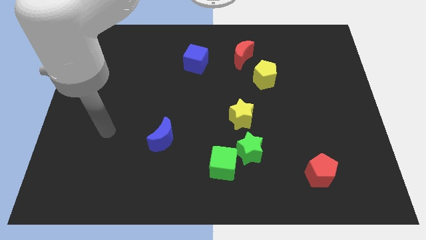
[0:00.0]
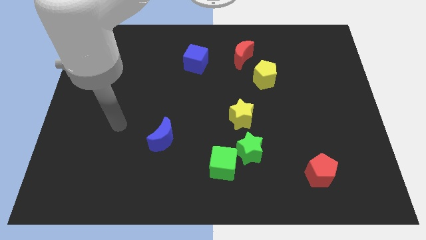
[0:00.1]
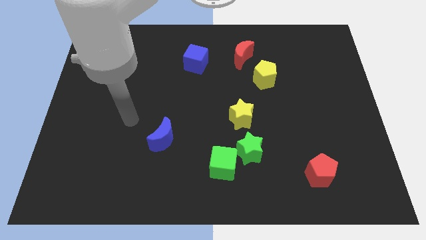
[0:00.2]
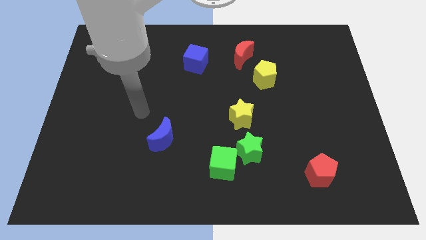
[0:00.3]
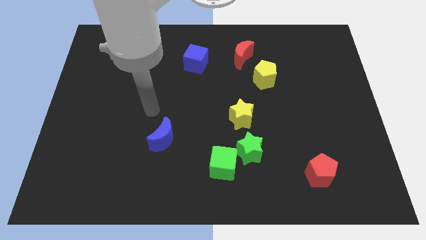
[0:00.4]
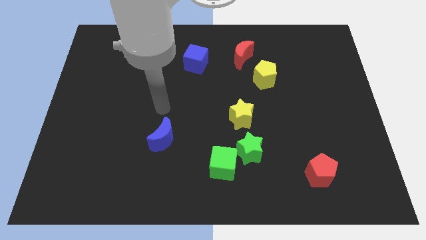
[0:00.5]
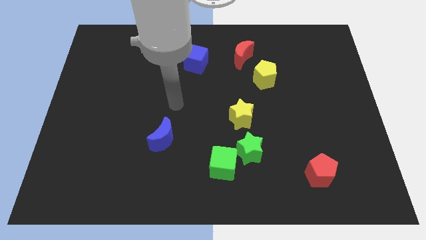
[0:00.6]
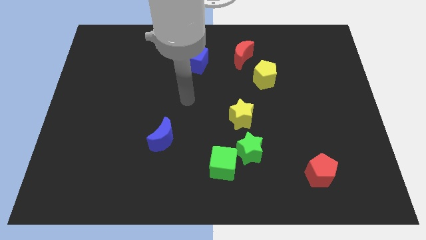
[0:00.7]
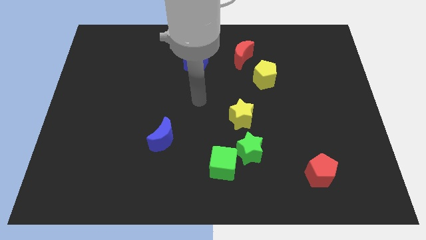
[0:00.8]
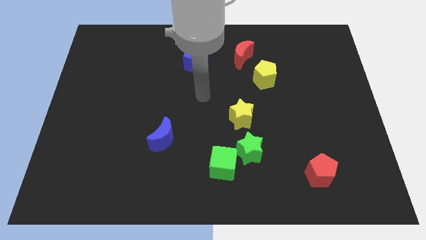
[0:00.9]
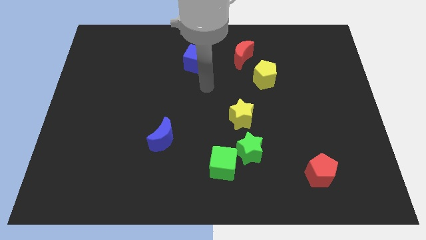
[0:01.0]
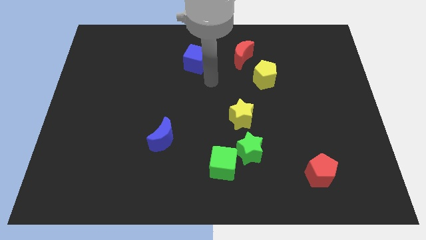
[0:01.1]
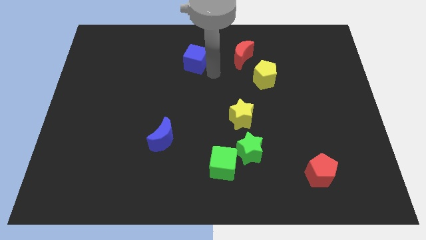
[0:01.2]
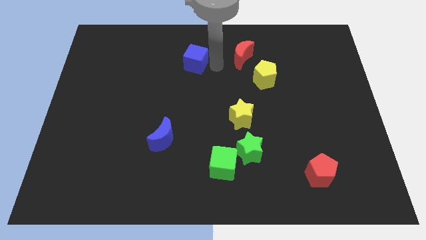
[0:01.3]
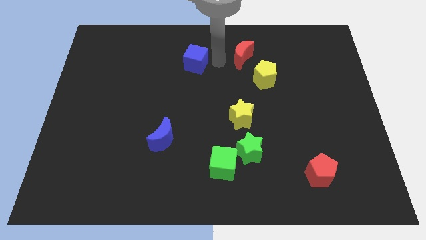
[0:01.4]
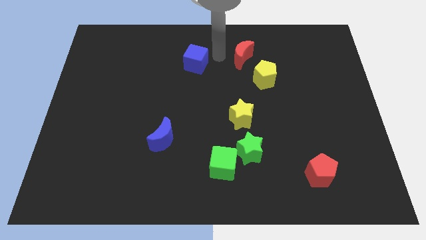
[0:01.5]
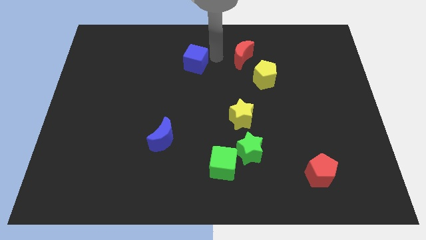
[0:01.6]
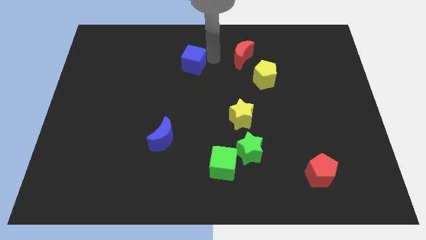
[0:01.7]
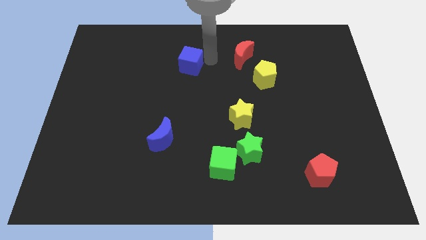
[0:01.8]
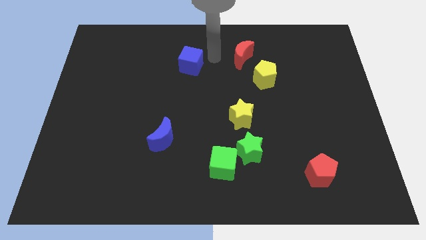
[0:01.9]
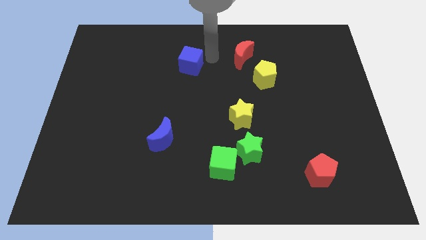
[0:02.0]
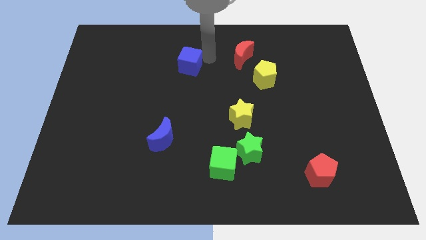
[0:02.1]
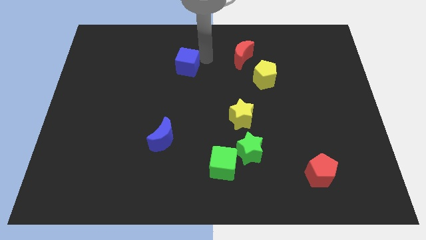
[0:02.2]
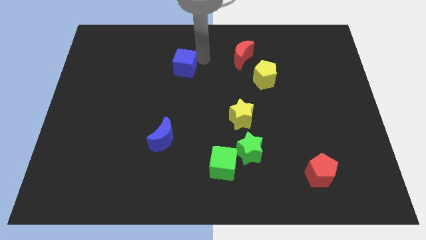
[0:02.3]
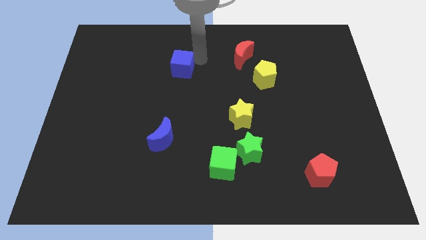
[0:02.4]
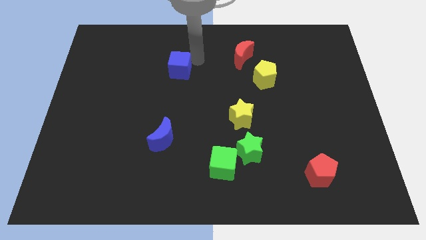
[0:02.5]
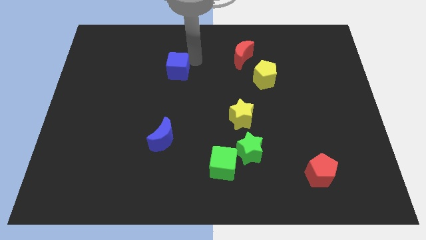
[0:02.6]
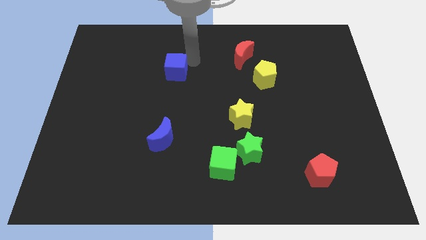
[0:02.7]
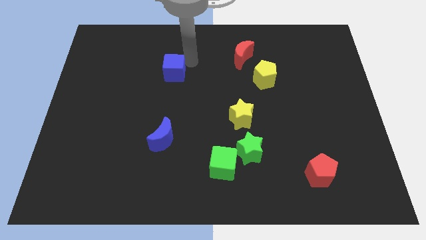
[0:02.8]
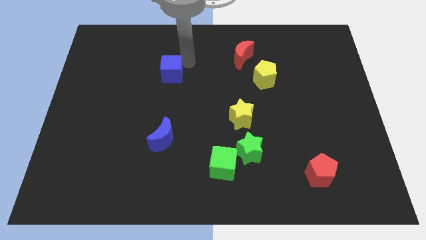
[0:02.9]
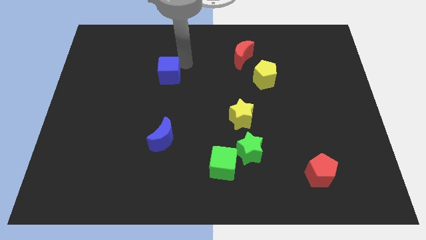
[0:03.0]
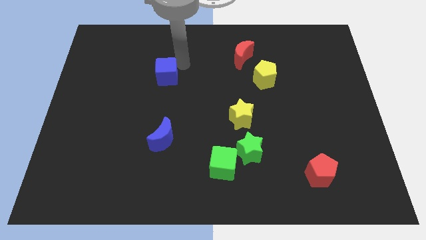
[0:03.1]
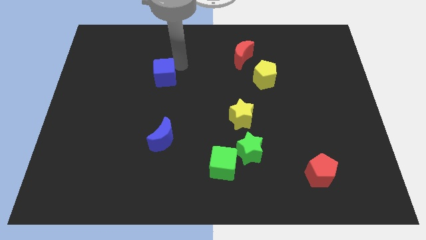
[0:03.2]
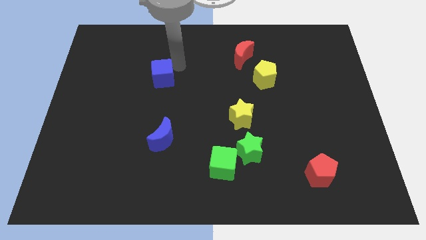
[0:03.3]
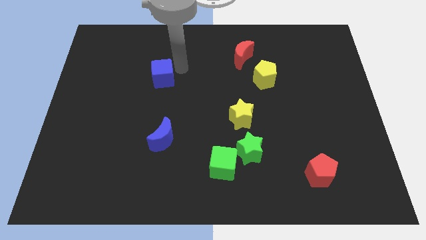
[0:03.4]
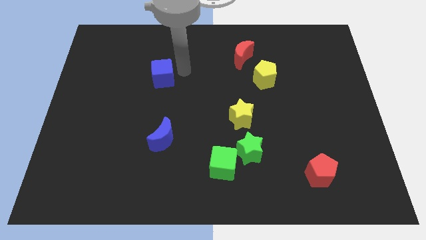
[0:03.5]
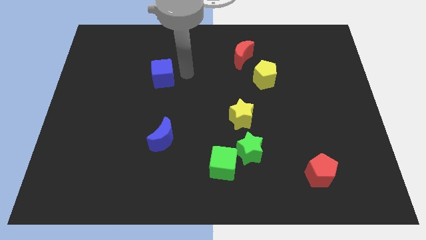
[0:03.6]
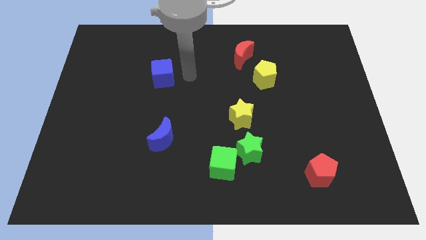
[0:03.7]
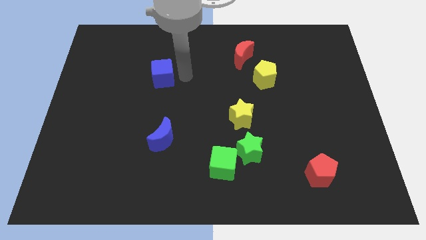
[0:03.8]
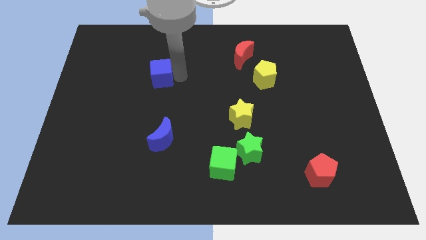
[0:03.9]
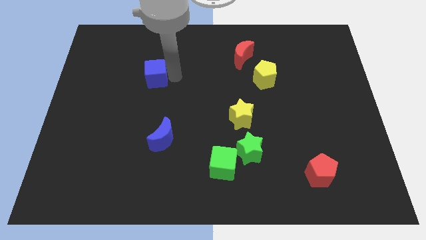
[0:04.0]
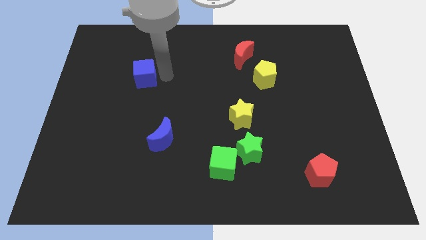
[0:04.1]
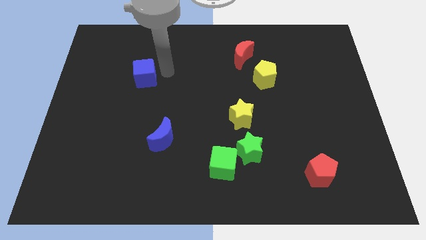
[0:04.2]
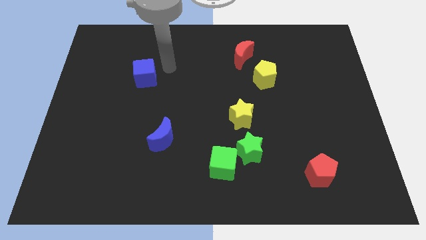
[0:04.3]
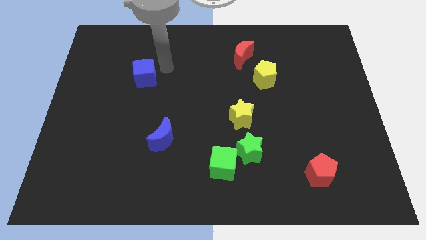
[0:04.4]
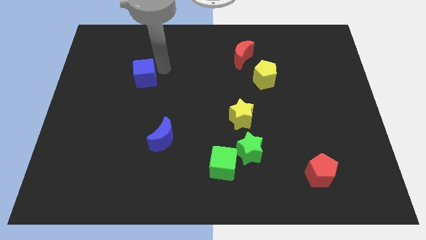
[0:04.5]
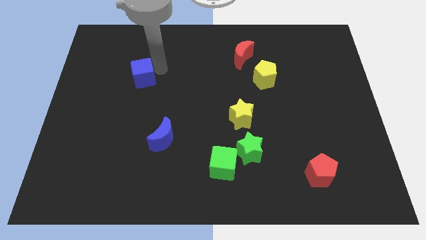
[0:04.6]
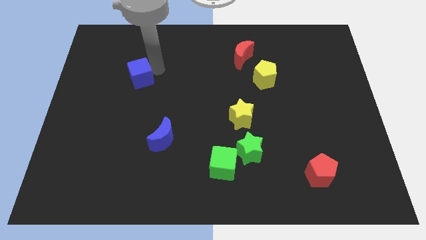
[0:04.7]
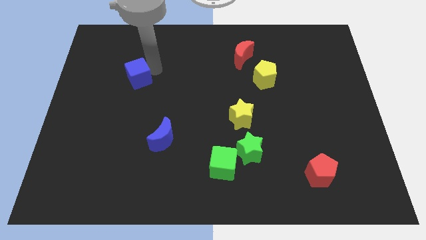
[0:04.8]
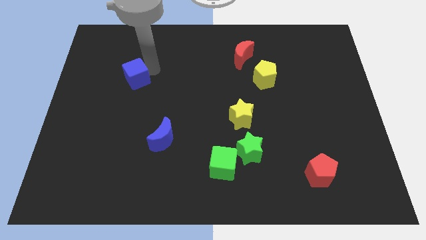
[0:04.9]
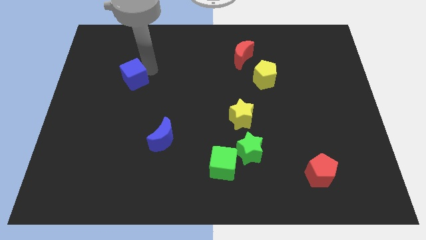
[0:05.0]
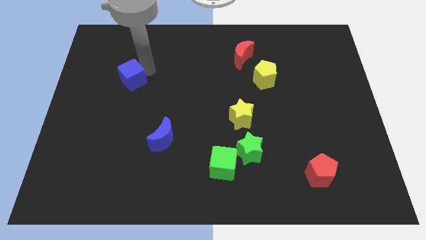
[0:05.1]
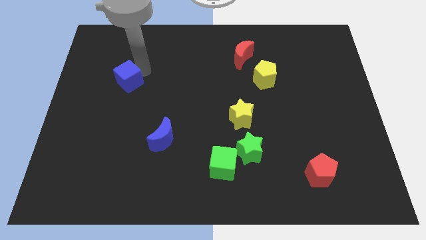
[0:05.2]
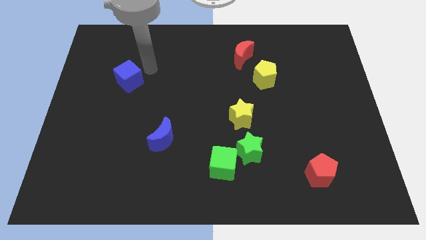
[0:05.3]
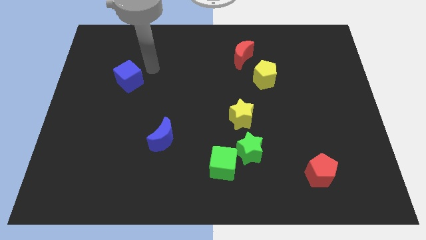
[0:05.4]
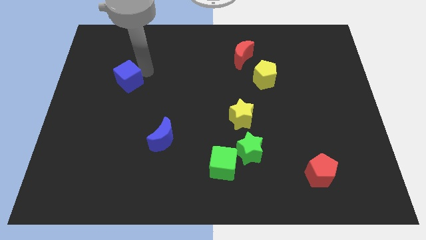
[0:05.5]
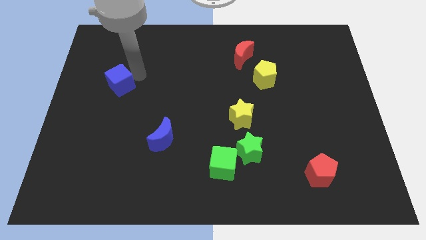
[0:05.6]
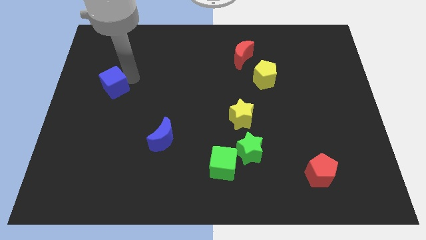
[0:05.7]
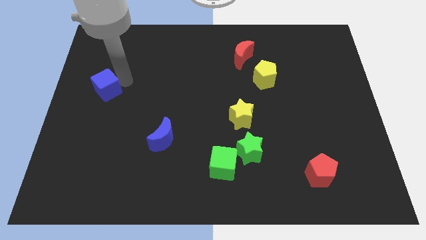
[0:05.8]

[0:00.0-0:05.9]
put the blue cube to the center left

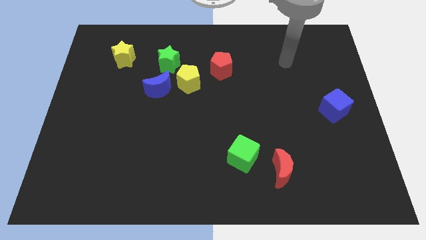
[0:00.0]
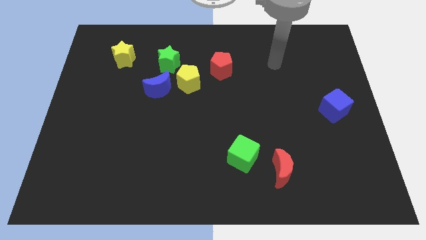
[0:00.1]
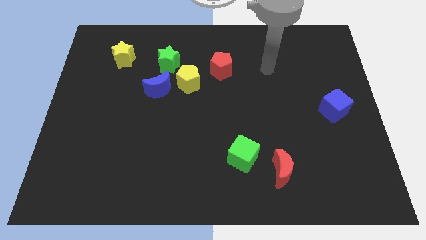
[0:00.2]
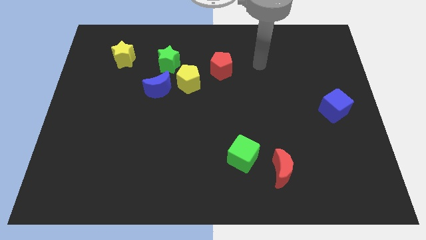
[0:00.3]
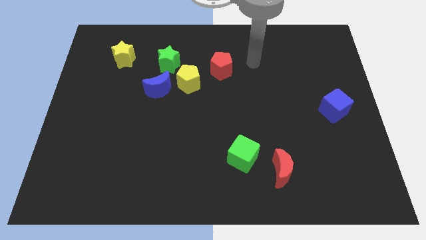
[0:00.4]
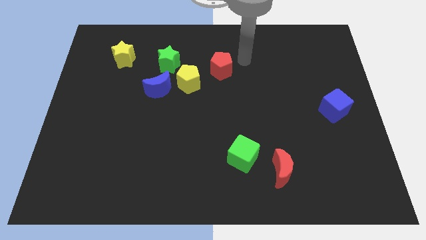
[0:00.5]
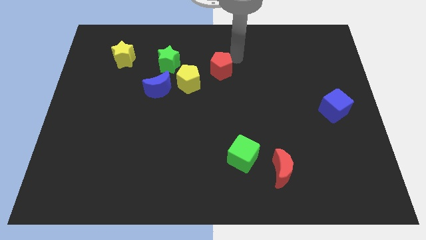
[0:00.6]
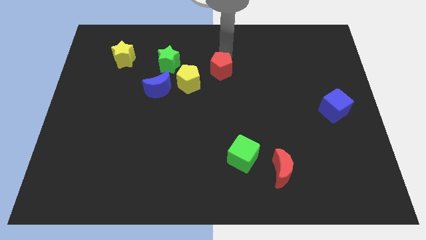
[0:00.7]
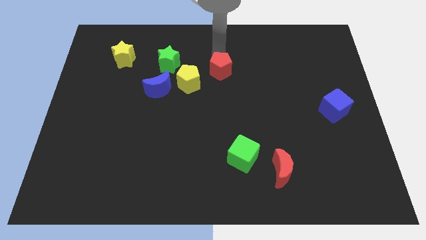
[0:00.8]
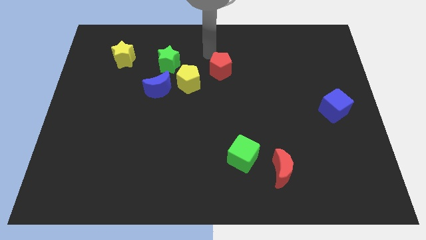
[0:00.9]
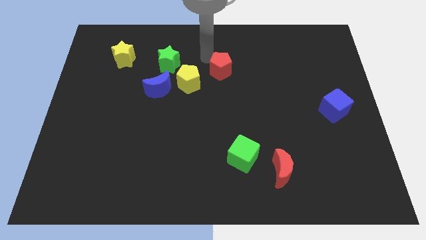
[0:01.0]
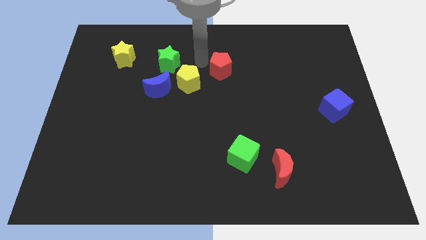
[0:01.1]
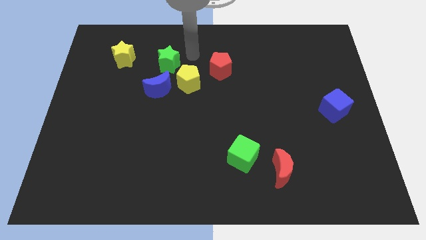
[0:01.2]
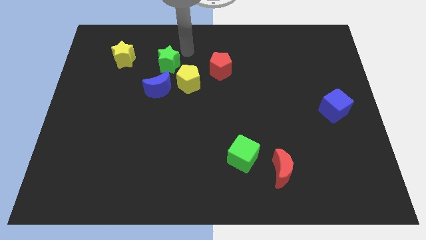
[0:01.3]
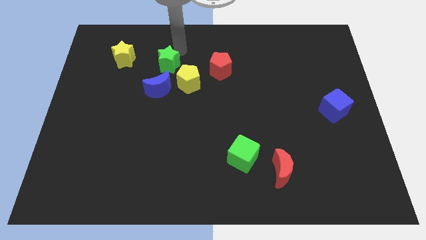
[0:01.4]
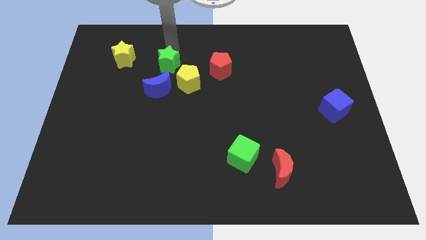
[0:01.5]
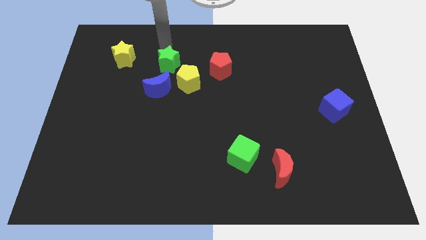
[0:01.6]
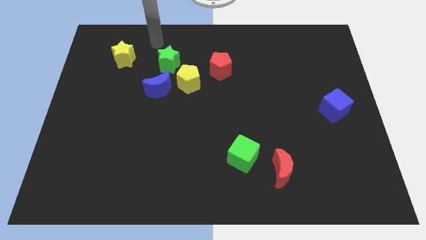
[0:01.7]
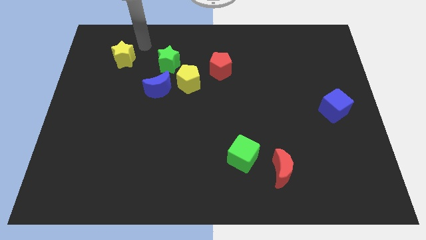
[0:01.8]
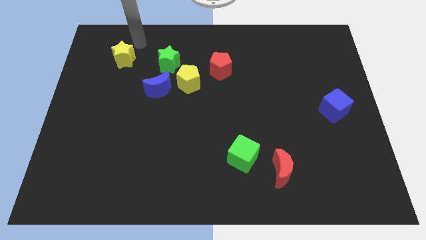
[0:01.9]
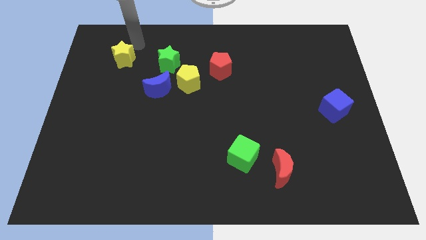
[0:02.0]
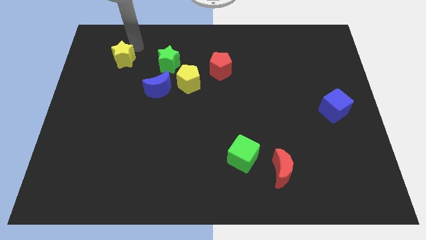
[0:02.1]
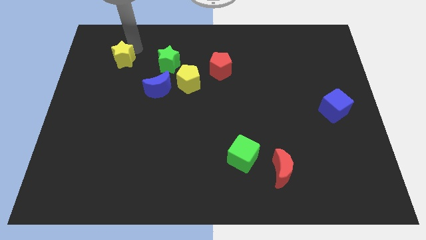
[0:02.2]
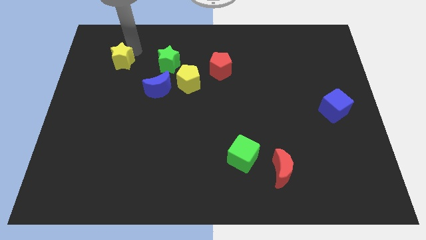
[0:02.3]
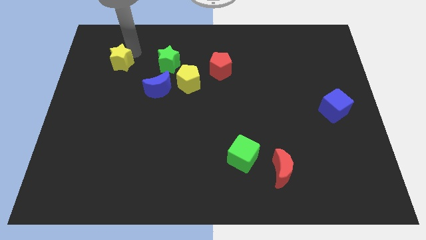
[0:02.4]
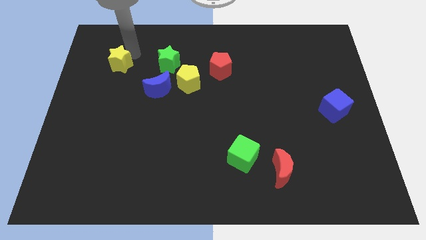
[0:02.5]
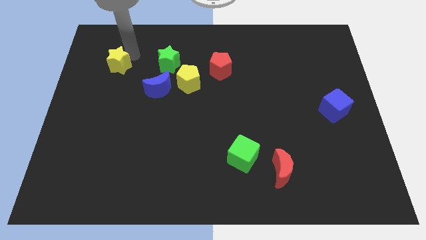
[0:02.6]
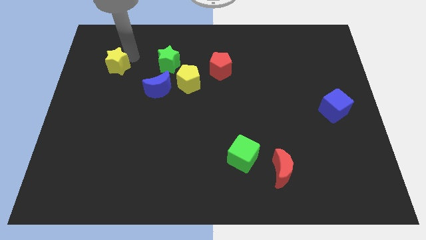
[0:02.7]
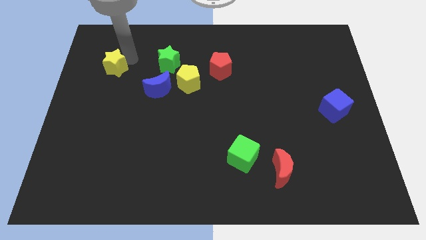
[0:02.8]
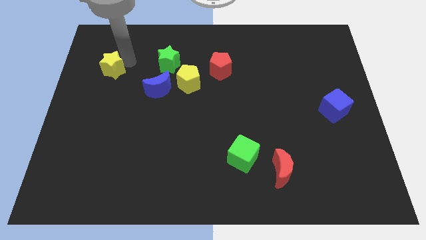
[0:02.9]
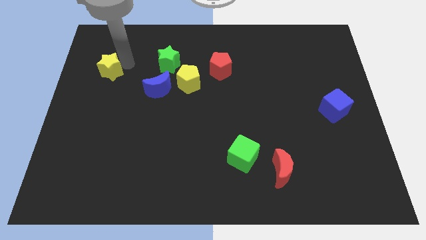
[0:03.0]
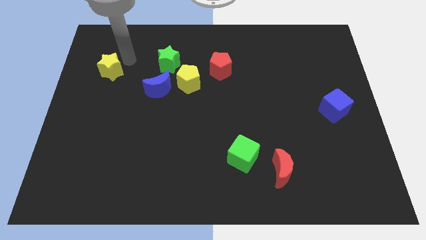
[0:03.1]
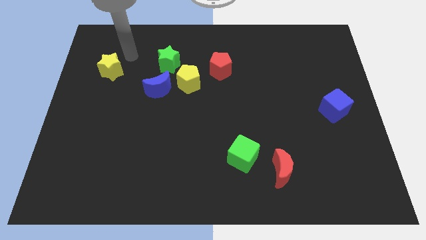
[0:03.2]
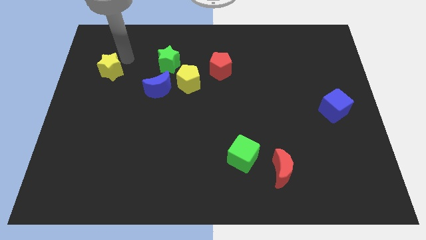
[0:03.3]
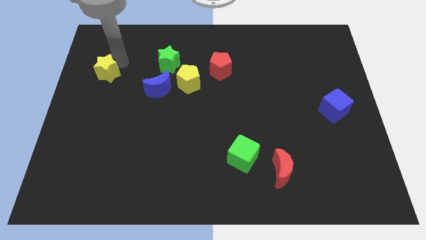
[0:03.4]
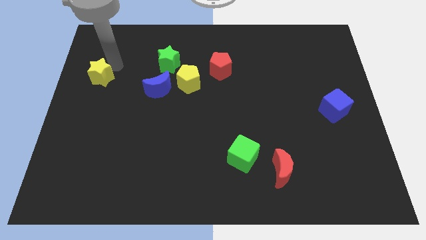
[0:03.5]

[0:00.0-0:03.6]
push the yellow star to the center left
